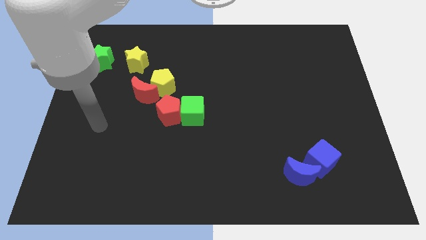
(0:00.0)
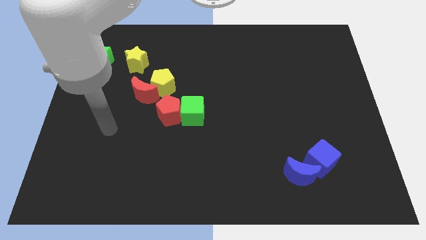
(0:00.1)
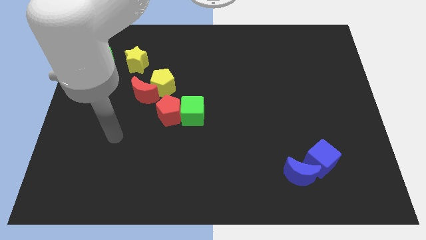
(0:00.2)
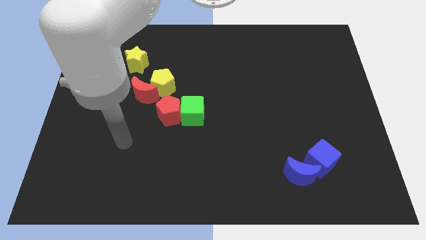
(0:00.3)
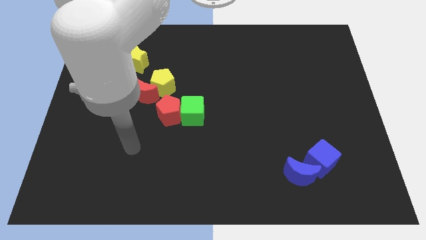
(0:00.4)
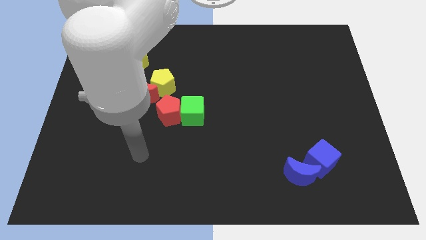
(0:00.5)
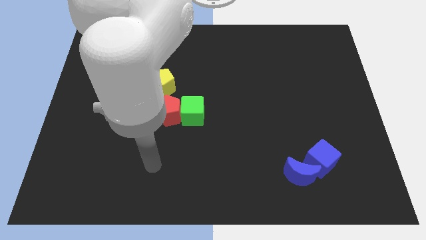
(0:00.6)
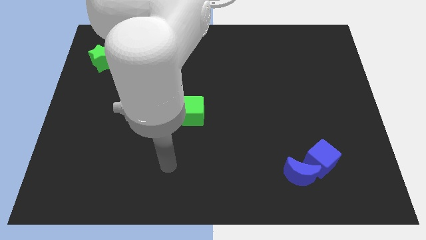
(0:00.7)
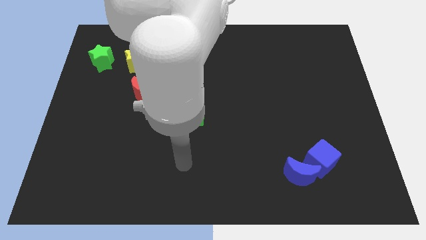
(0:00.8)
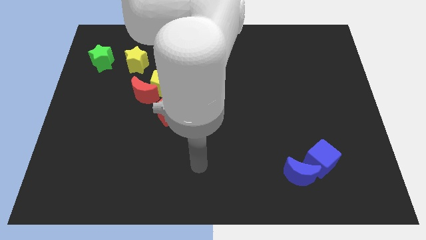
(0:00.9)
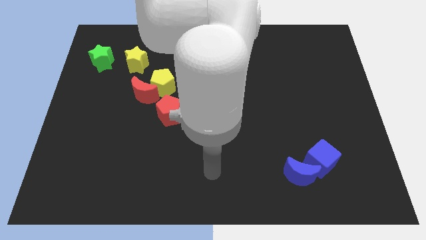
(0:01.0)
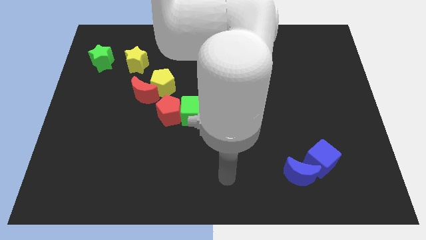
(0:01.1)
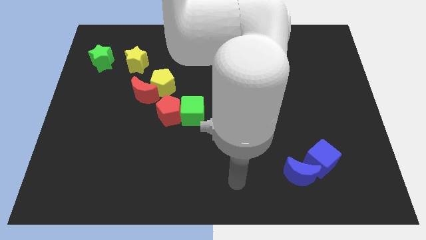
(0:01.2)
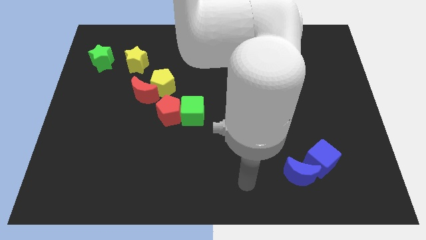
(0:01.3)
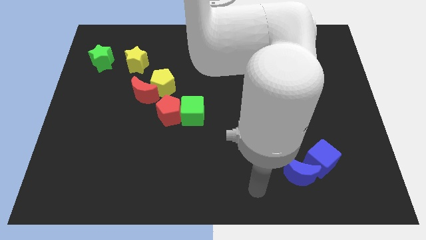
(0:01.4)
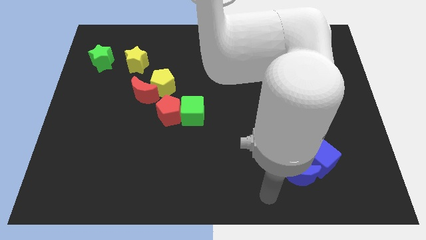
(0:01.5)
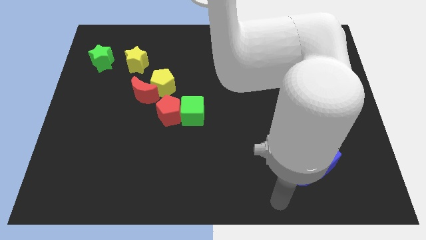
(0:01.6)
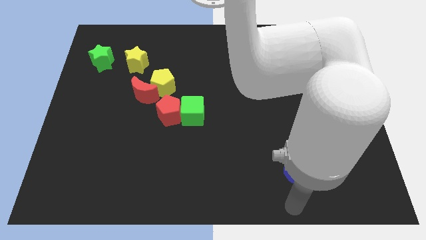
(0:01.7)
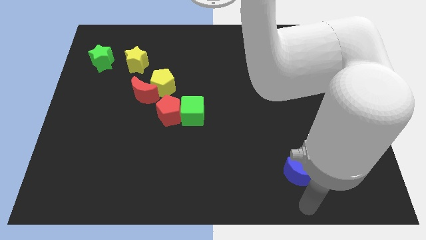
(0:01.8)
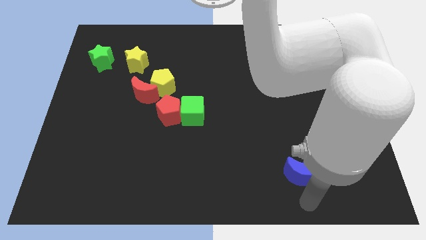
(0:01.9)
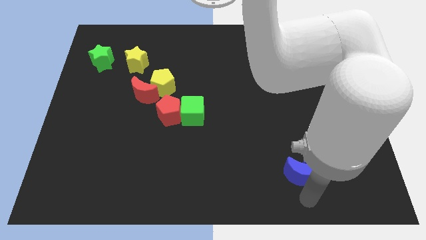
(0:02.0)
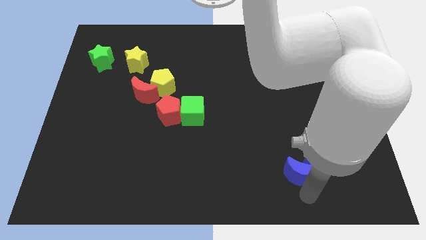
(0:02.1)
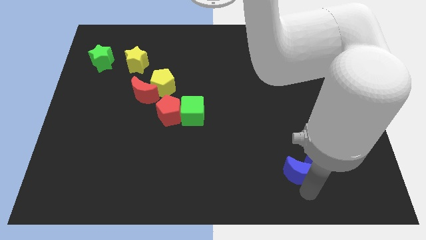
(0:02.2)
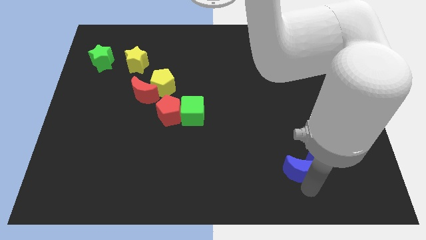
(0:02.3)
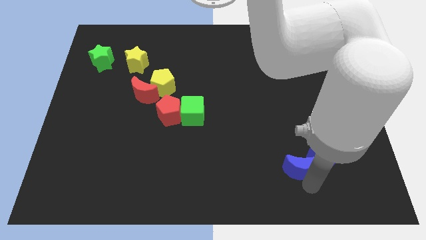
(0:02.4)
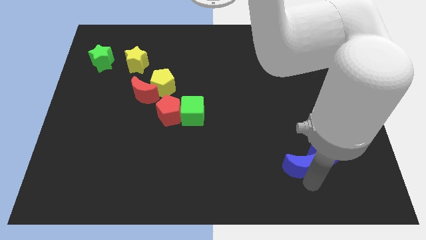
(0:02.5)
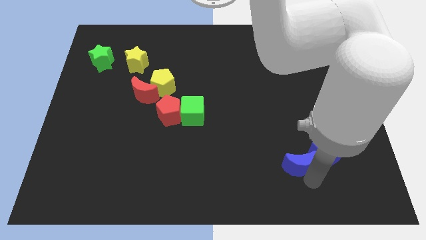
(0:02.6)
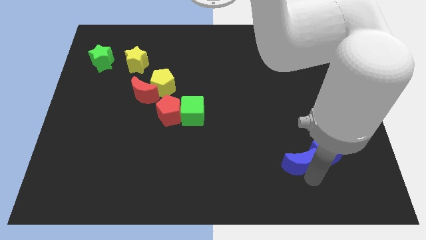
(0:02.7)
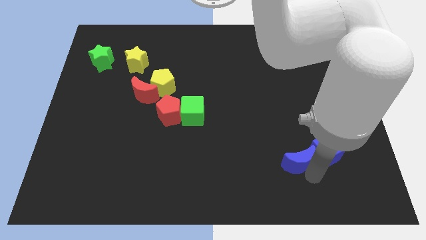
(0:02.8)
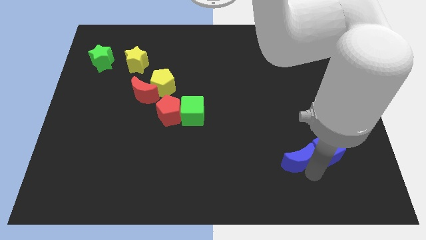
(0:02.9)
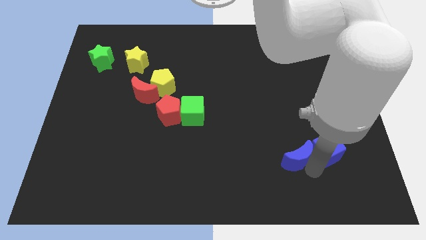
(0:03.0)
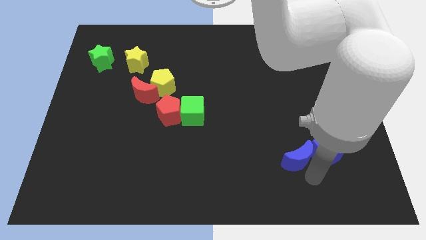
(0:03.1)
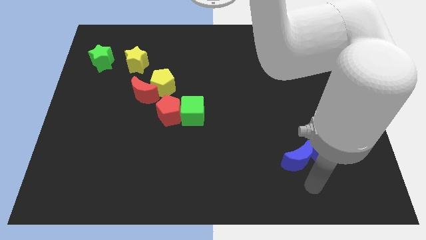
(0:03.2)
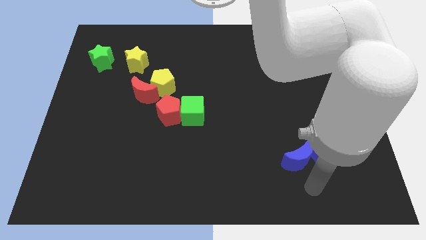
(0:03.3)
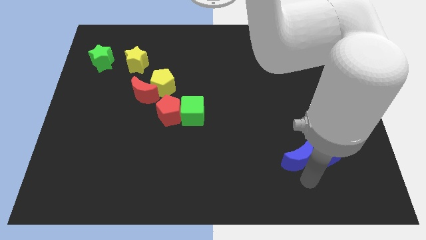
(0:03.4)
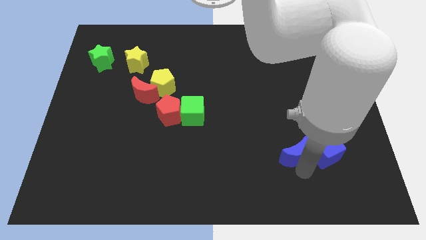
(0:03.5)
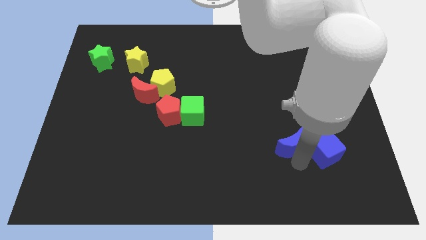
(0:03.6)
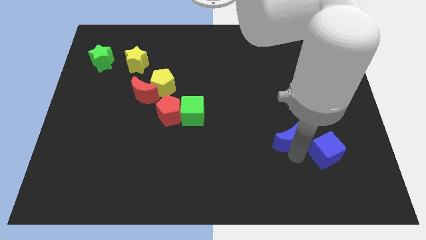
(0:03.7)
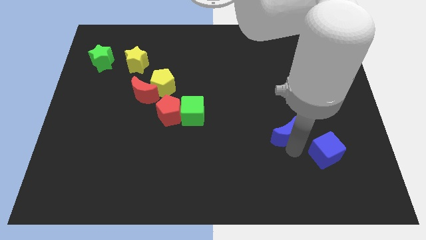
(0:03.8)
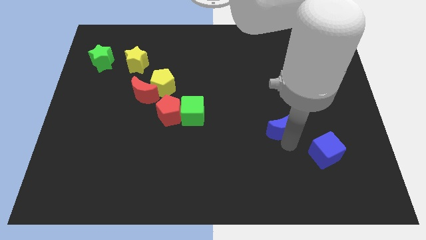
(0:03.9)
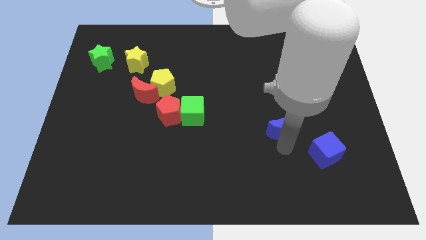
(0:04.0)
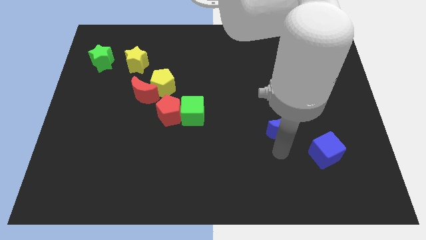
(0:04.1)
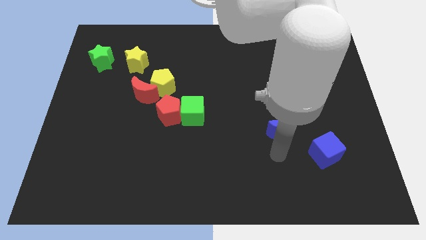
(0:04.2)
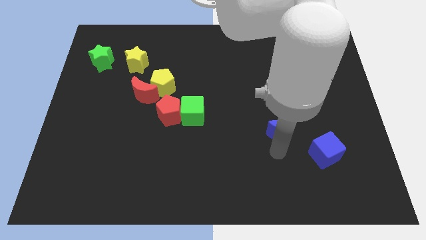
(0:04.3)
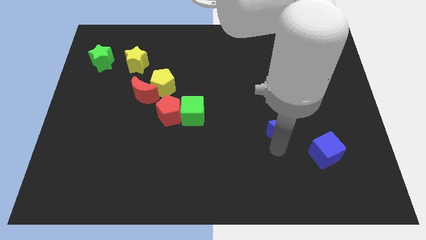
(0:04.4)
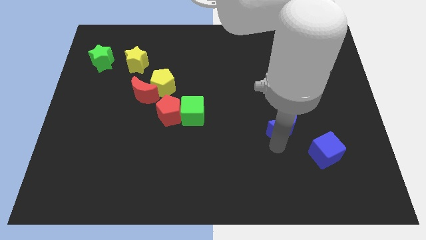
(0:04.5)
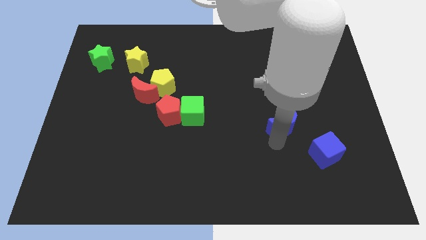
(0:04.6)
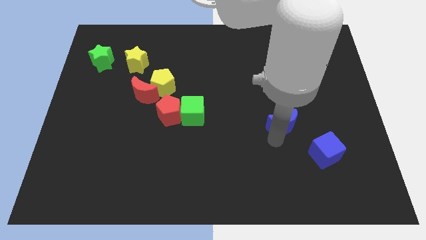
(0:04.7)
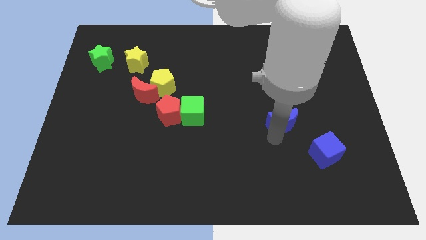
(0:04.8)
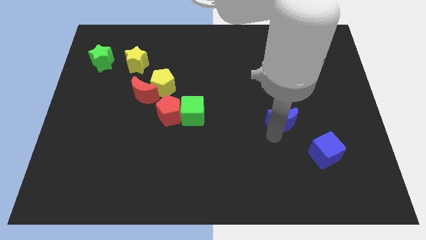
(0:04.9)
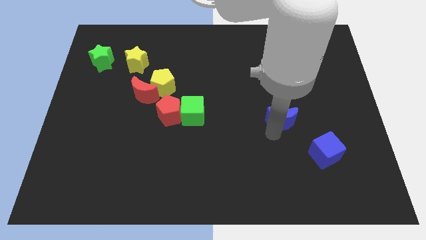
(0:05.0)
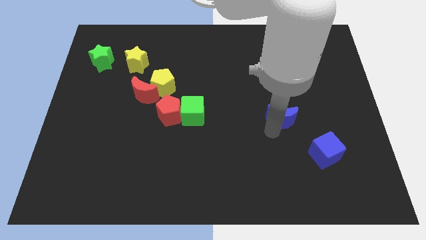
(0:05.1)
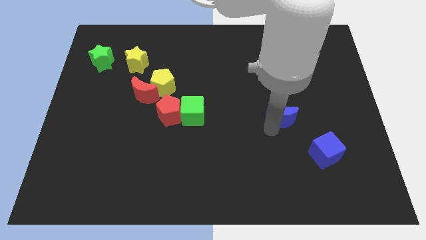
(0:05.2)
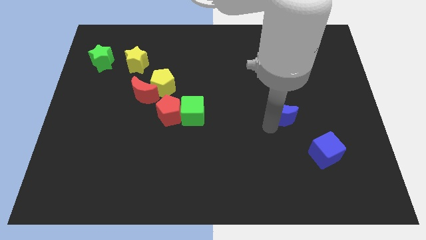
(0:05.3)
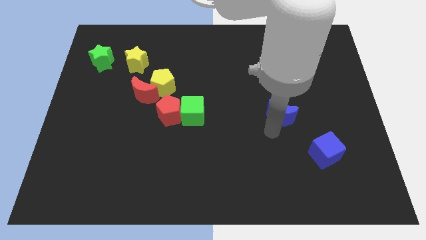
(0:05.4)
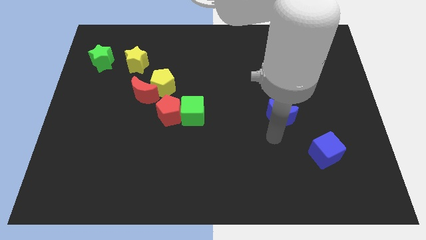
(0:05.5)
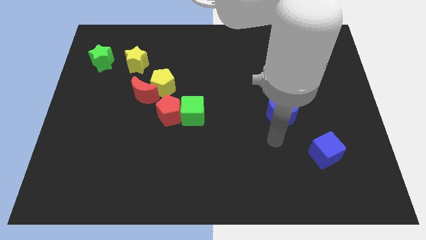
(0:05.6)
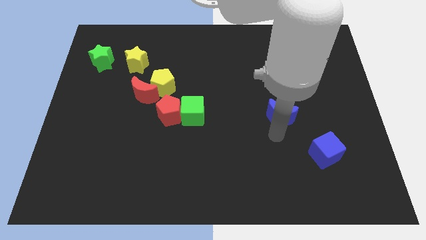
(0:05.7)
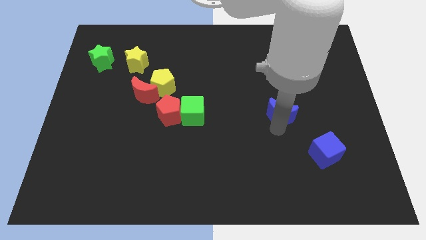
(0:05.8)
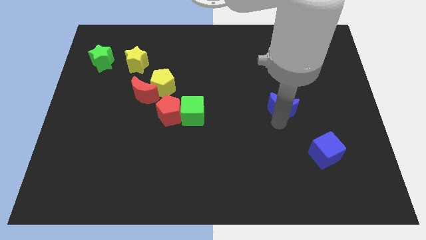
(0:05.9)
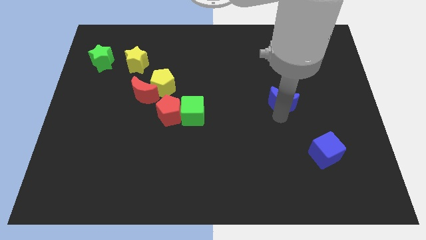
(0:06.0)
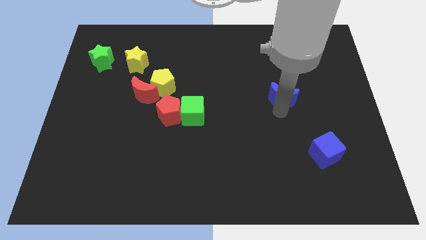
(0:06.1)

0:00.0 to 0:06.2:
push the blue moon upwards

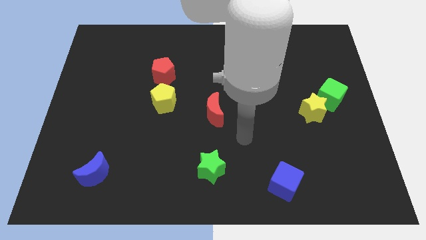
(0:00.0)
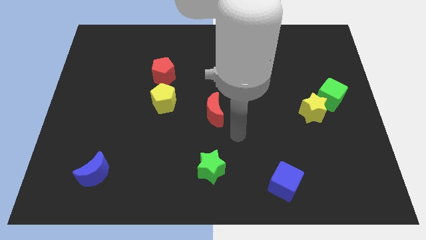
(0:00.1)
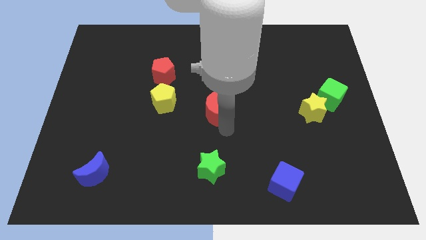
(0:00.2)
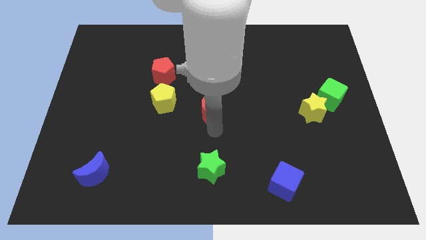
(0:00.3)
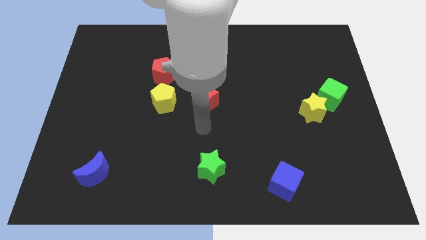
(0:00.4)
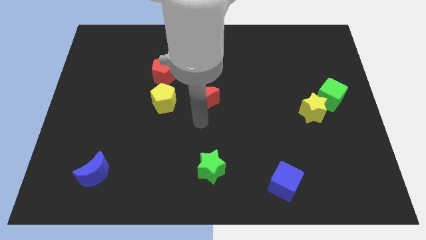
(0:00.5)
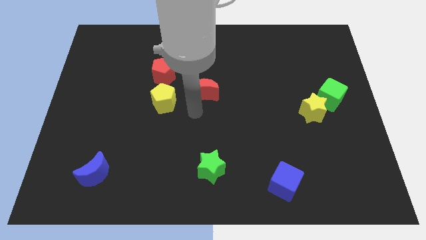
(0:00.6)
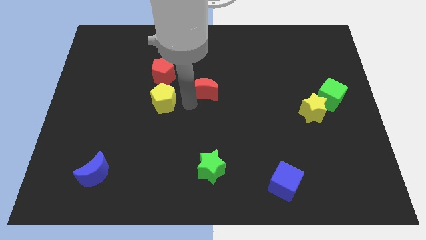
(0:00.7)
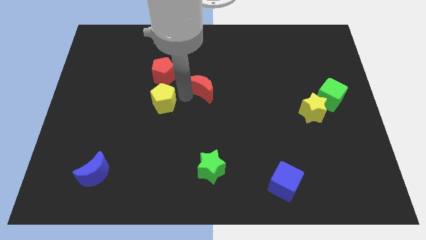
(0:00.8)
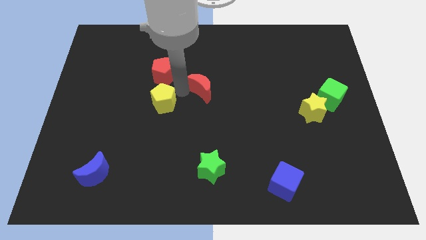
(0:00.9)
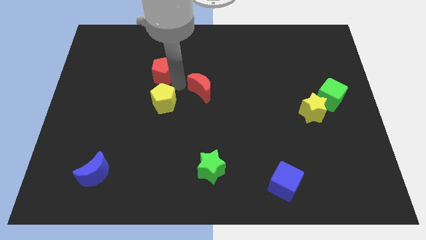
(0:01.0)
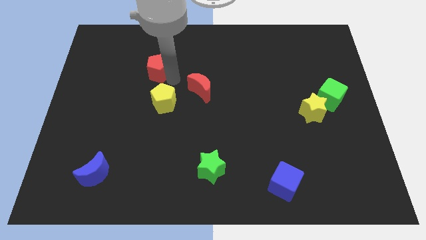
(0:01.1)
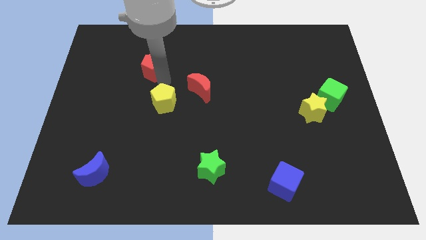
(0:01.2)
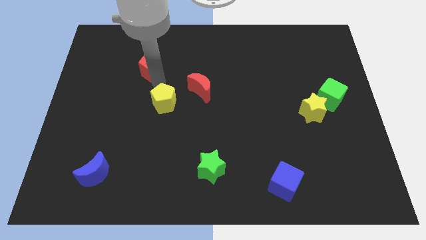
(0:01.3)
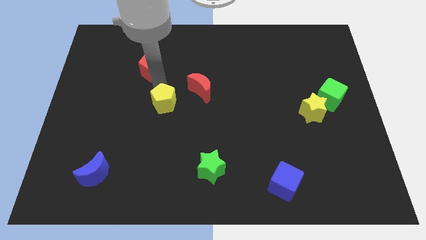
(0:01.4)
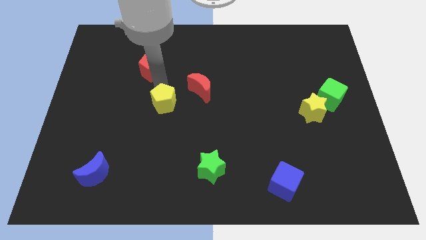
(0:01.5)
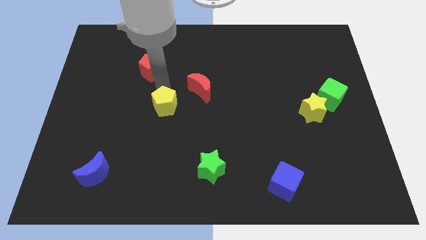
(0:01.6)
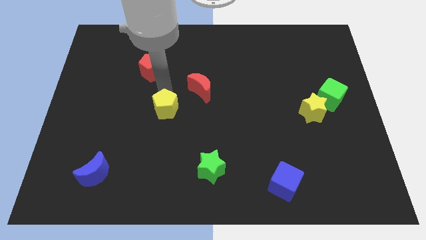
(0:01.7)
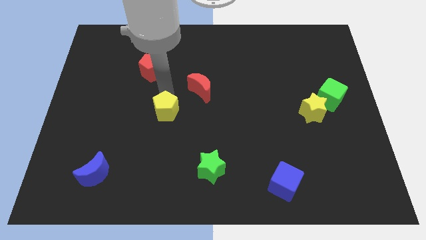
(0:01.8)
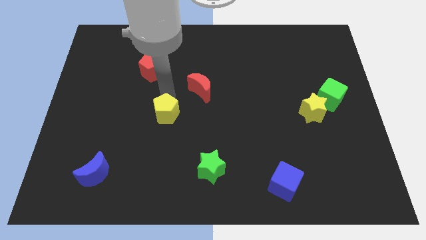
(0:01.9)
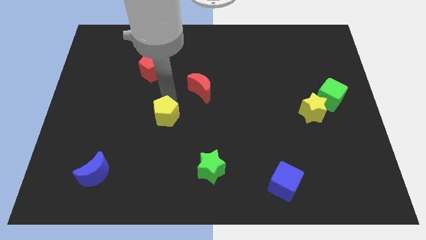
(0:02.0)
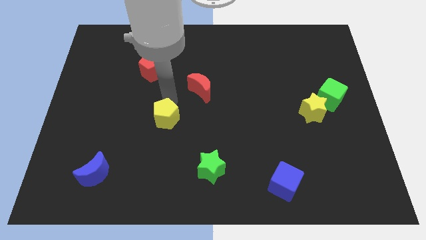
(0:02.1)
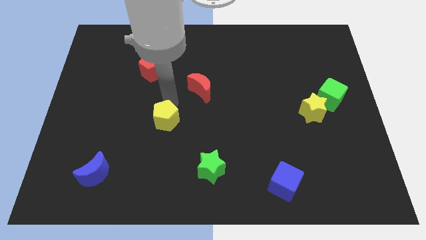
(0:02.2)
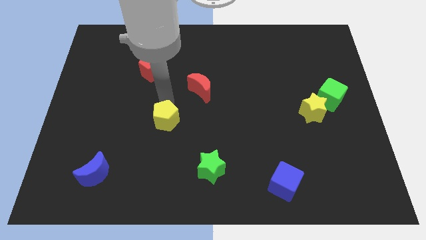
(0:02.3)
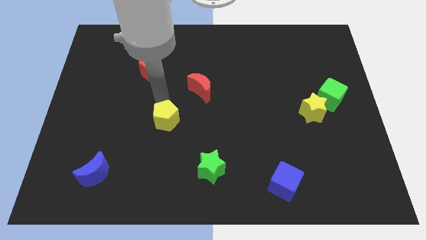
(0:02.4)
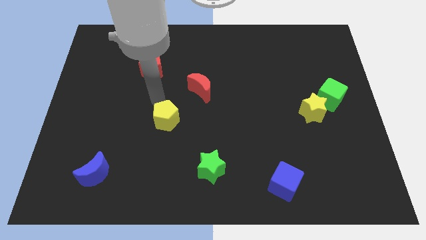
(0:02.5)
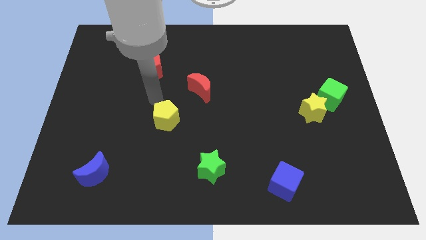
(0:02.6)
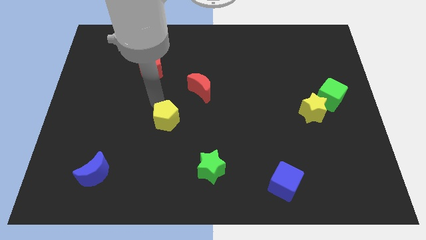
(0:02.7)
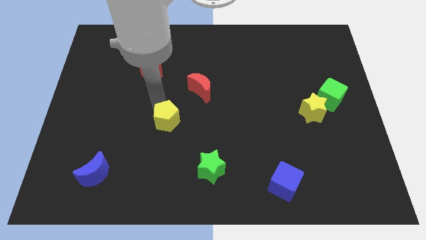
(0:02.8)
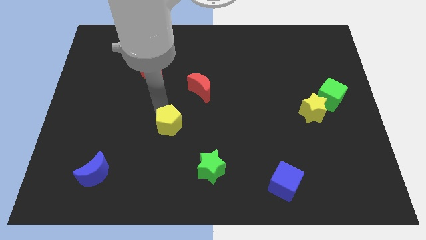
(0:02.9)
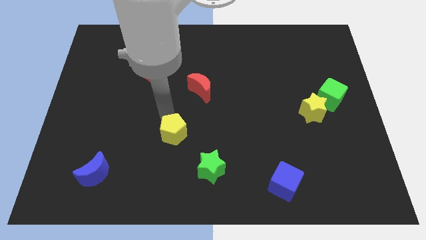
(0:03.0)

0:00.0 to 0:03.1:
move the yellow pentagon down a little
